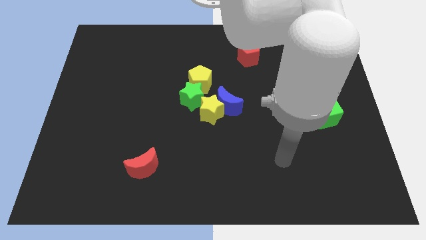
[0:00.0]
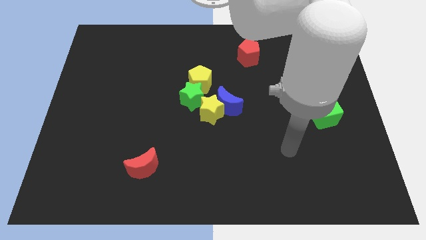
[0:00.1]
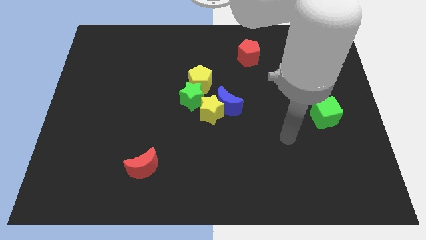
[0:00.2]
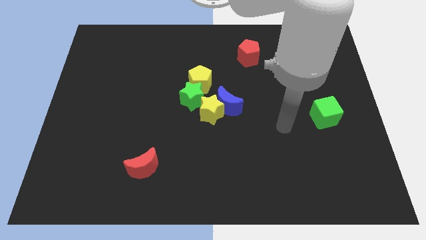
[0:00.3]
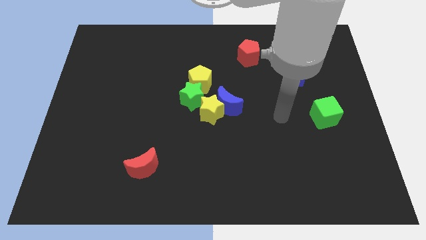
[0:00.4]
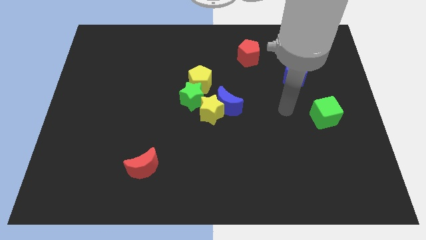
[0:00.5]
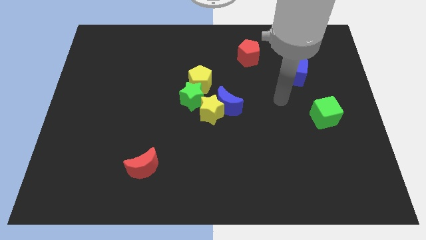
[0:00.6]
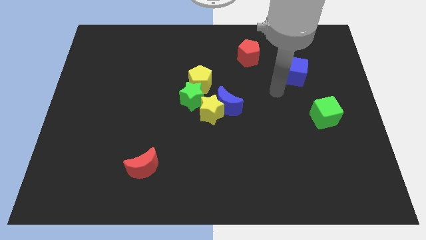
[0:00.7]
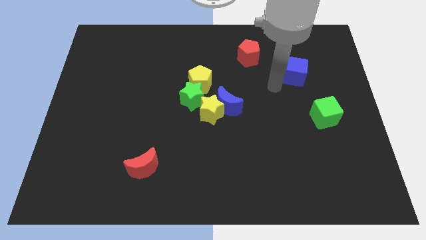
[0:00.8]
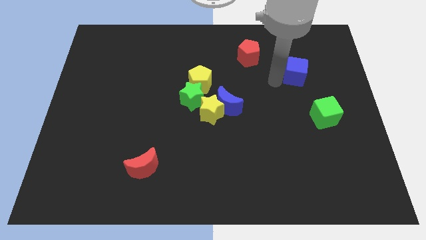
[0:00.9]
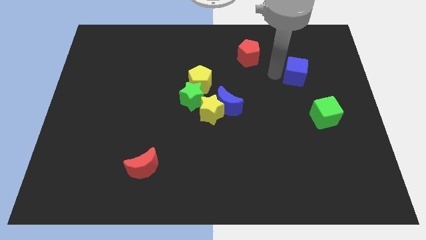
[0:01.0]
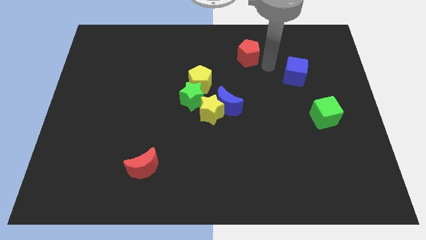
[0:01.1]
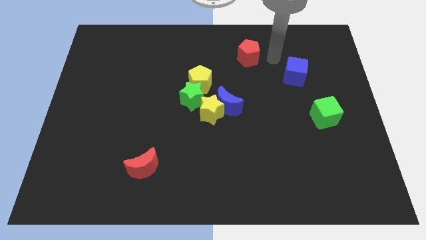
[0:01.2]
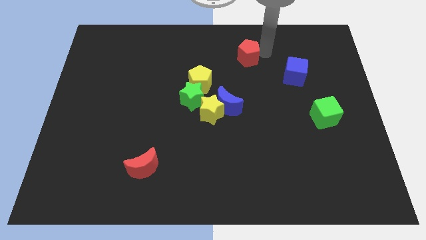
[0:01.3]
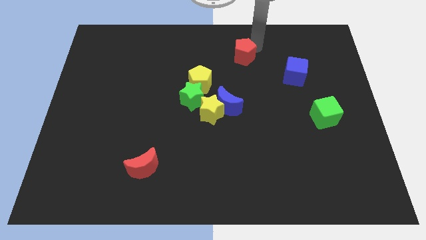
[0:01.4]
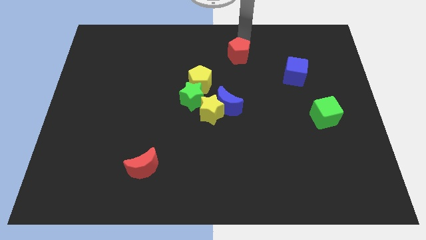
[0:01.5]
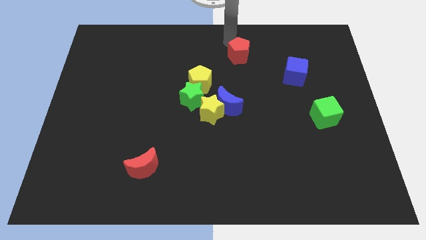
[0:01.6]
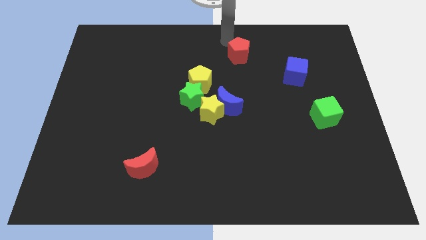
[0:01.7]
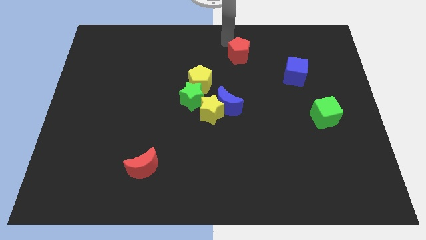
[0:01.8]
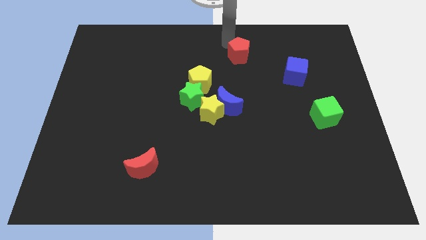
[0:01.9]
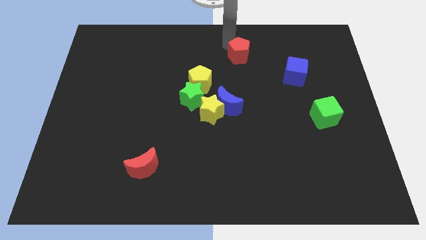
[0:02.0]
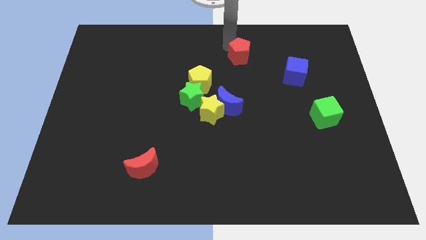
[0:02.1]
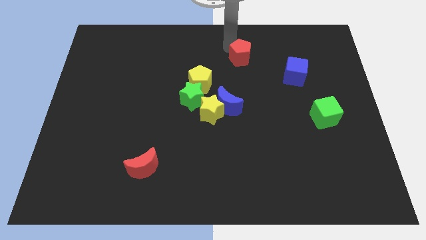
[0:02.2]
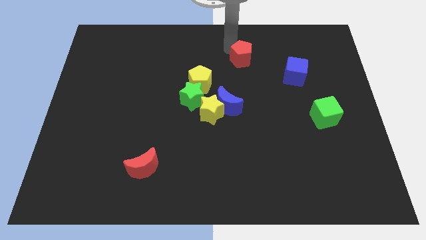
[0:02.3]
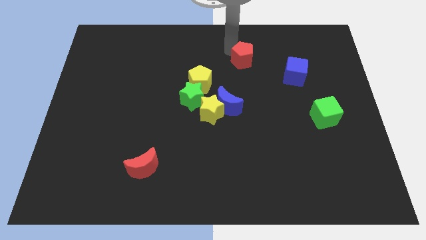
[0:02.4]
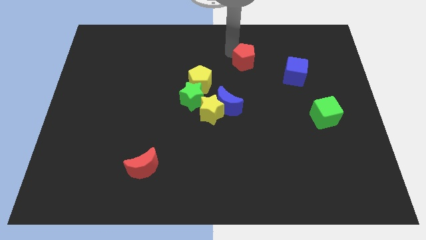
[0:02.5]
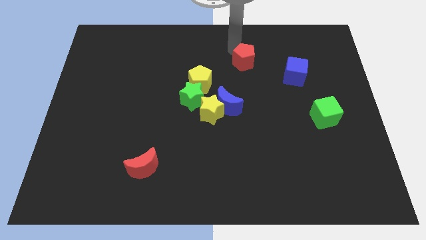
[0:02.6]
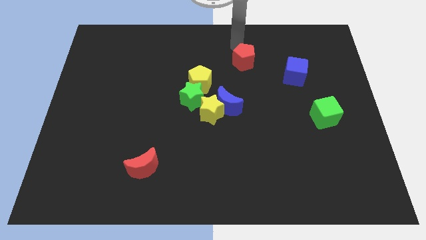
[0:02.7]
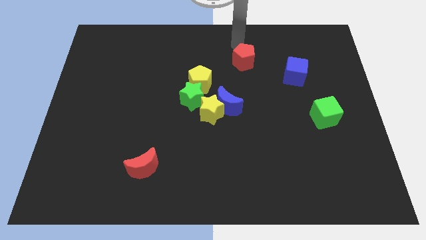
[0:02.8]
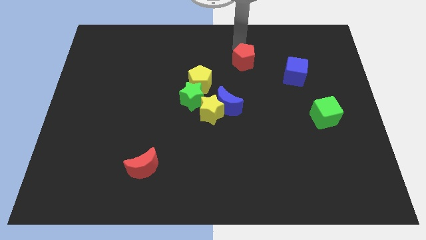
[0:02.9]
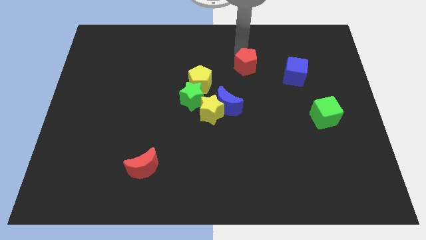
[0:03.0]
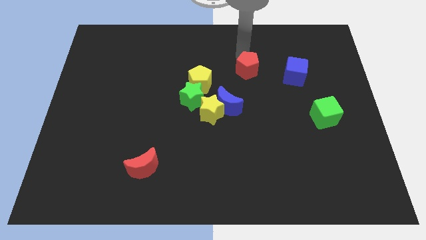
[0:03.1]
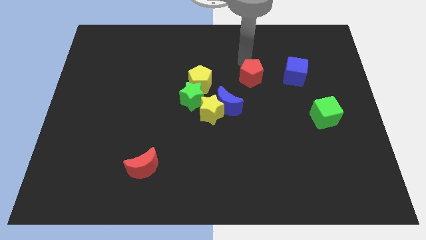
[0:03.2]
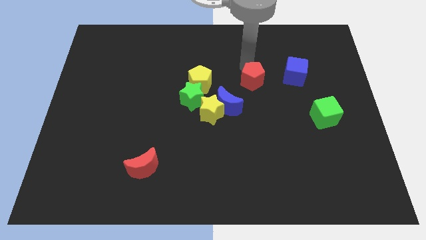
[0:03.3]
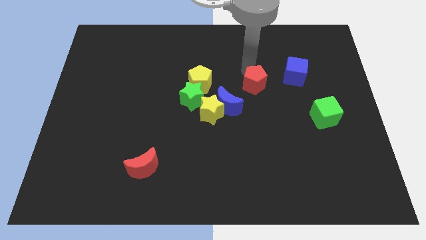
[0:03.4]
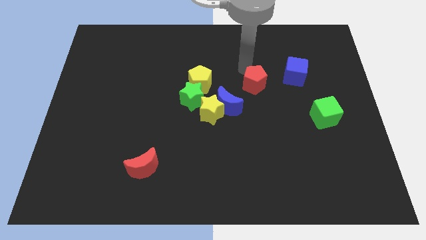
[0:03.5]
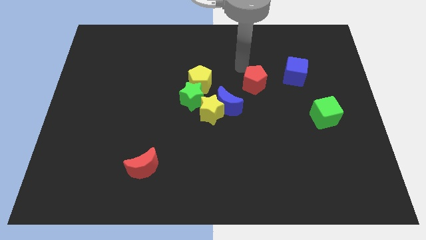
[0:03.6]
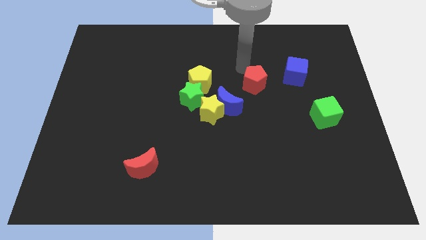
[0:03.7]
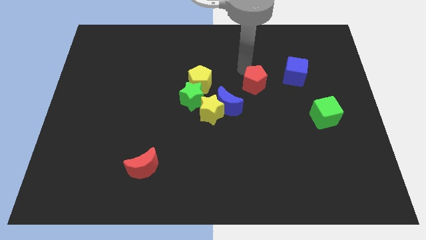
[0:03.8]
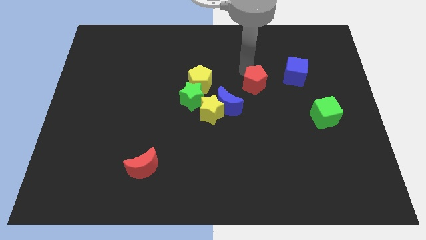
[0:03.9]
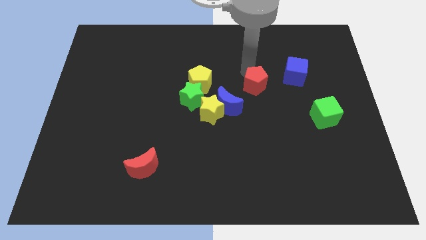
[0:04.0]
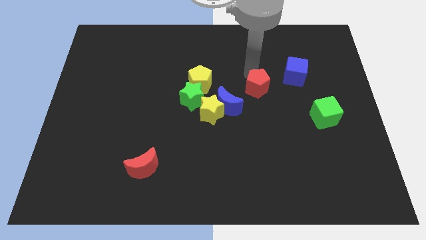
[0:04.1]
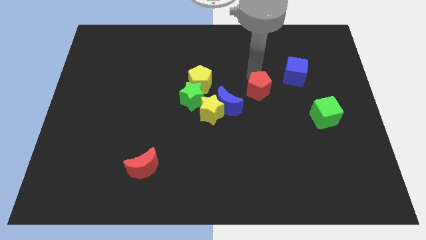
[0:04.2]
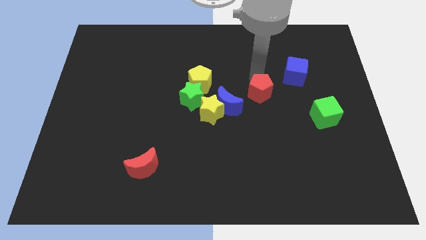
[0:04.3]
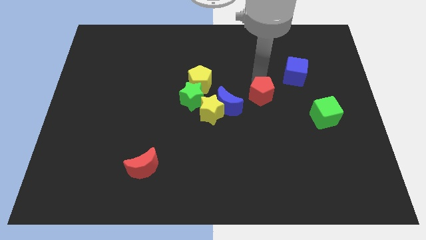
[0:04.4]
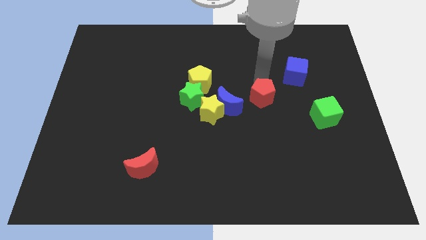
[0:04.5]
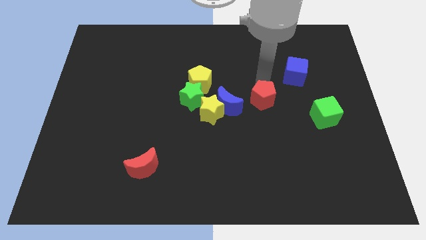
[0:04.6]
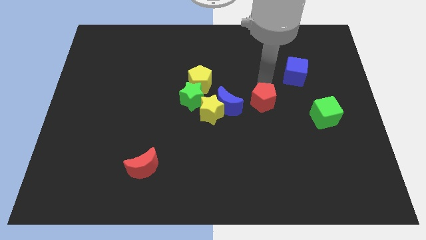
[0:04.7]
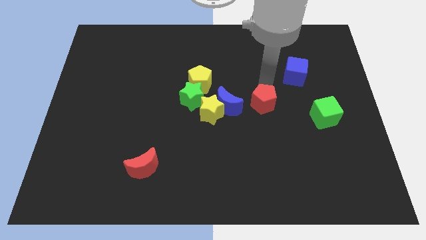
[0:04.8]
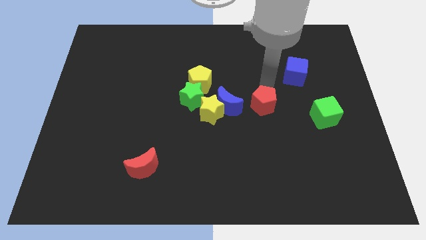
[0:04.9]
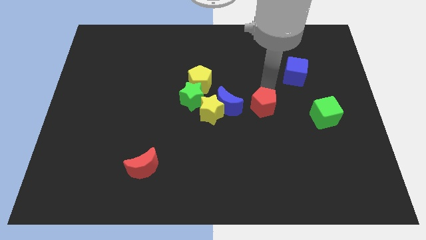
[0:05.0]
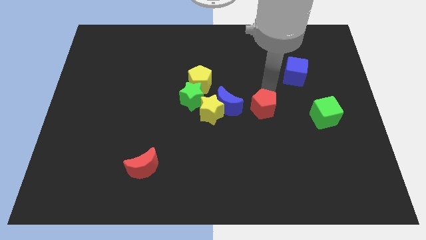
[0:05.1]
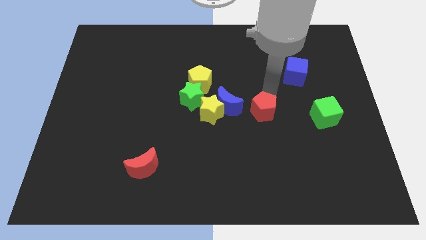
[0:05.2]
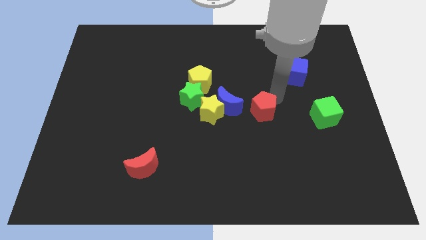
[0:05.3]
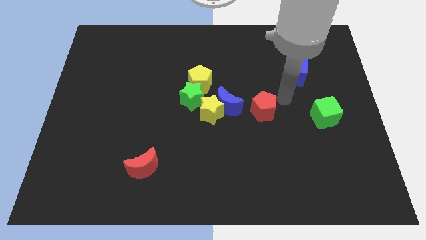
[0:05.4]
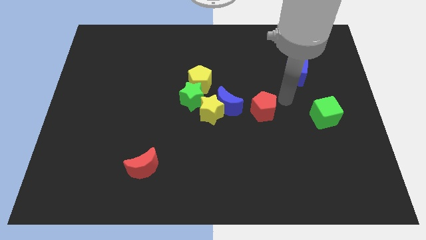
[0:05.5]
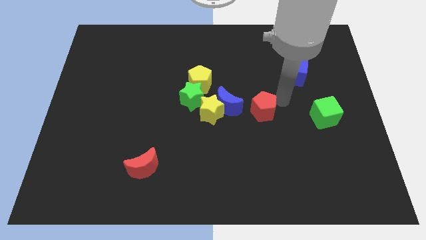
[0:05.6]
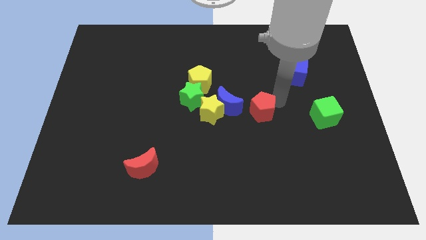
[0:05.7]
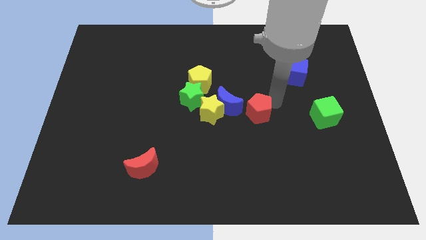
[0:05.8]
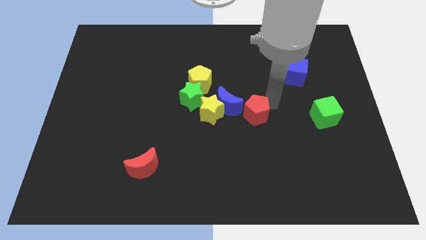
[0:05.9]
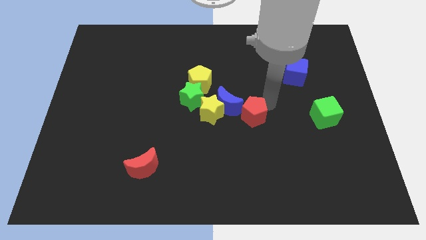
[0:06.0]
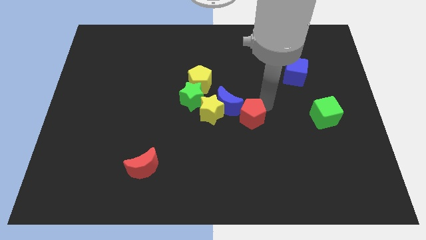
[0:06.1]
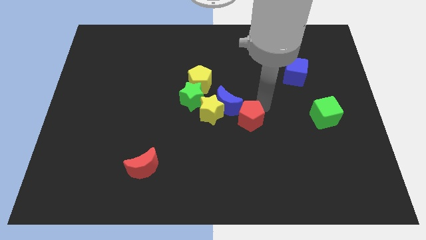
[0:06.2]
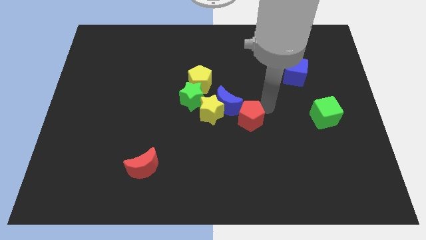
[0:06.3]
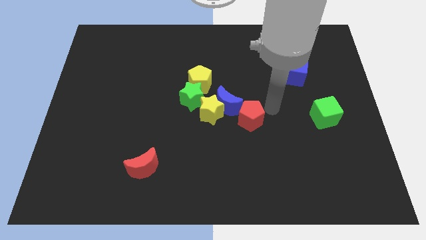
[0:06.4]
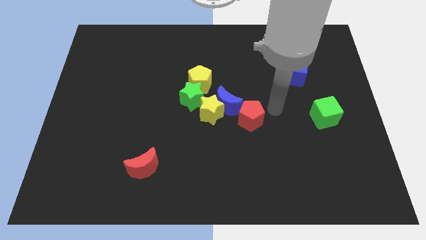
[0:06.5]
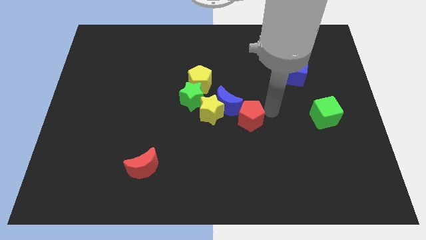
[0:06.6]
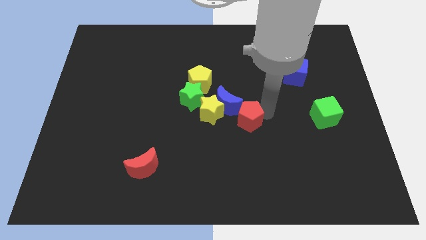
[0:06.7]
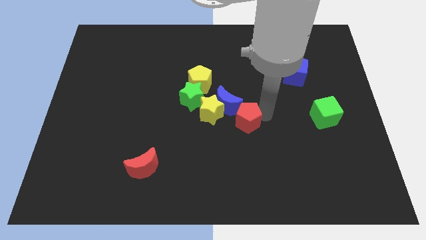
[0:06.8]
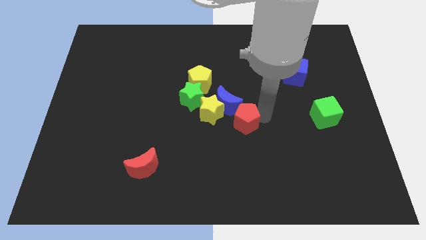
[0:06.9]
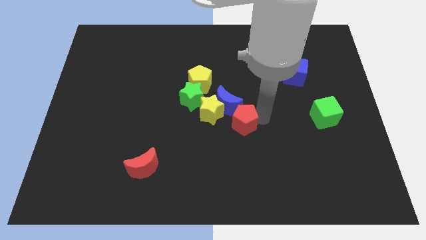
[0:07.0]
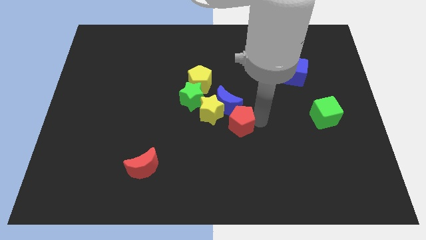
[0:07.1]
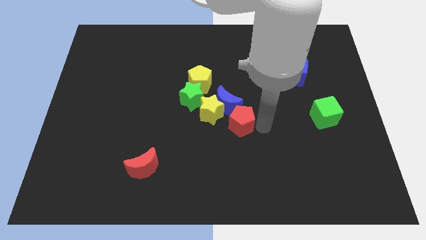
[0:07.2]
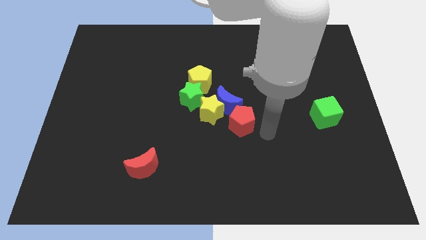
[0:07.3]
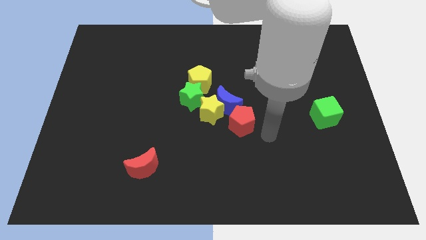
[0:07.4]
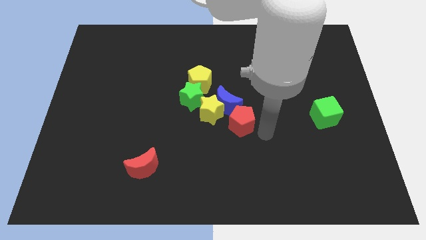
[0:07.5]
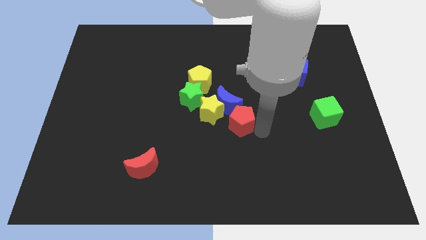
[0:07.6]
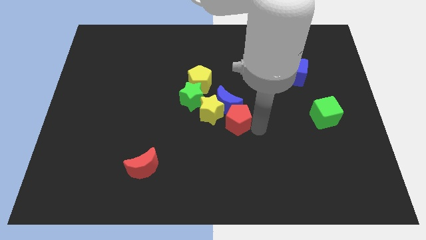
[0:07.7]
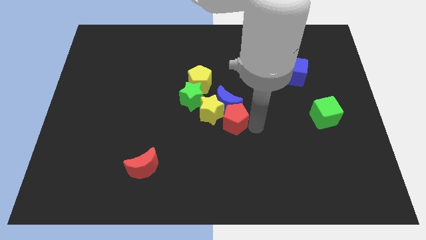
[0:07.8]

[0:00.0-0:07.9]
push the red pentagon towards the yellow star
